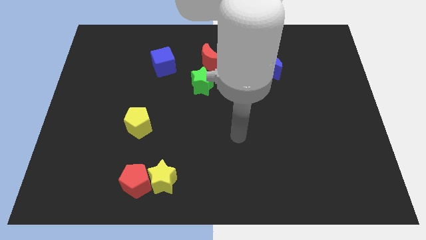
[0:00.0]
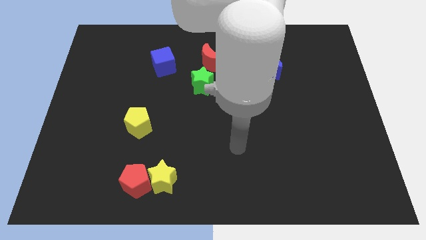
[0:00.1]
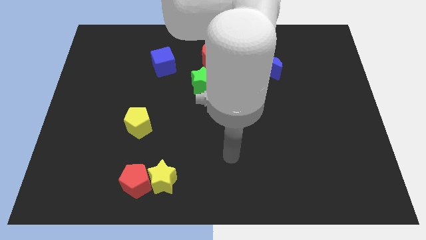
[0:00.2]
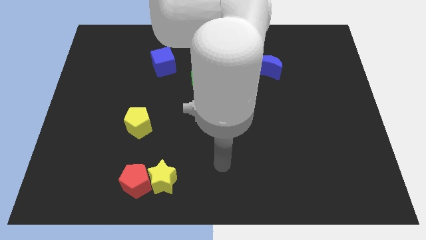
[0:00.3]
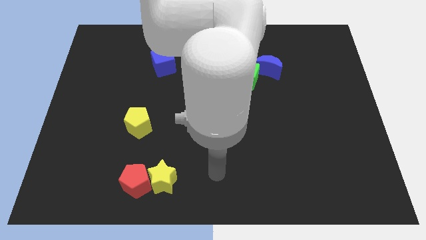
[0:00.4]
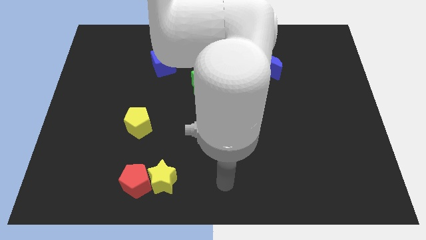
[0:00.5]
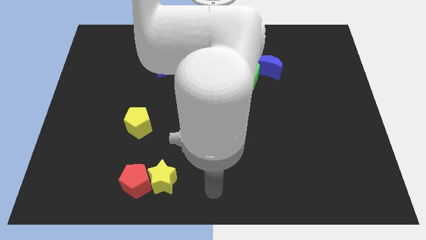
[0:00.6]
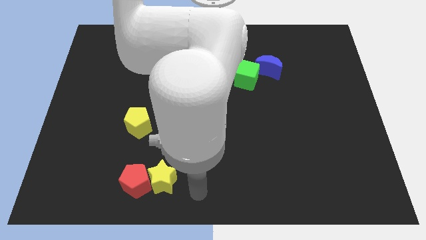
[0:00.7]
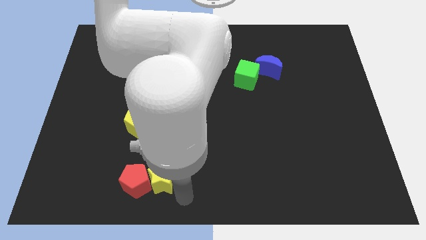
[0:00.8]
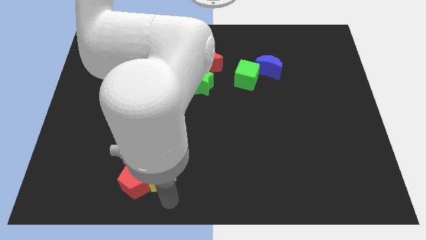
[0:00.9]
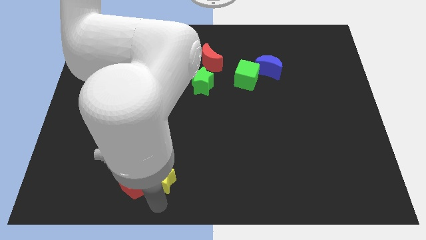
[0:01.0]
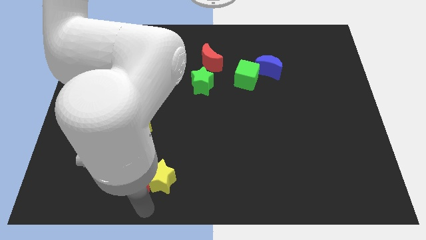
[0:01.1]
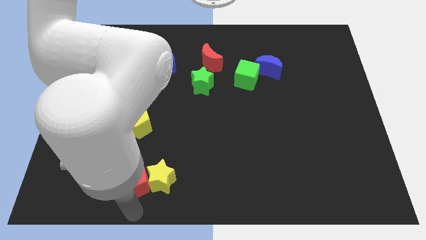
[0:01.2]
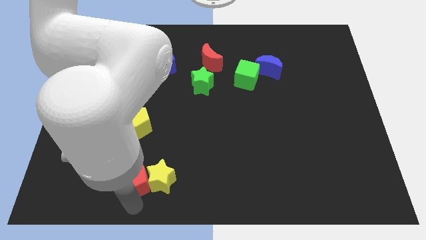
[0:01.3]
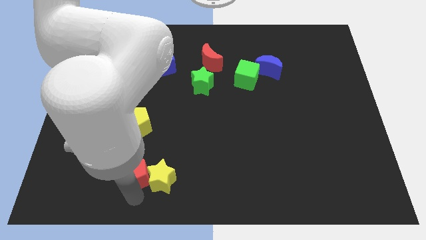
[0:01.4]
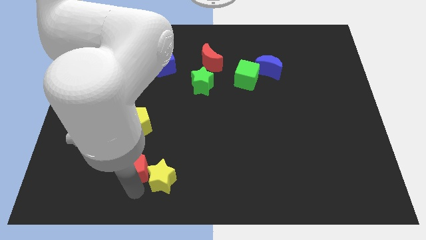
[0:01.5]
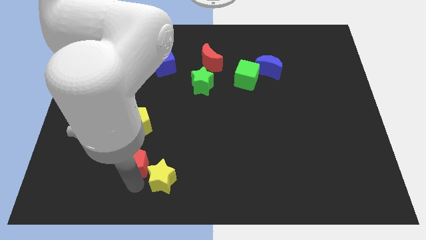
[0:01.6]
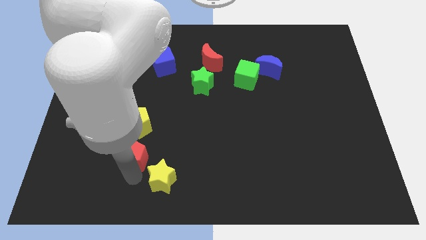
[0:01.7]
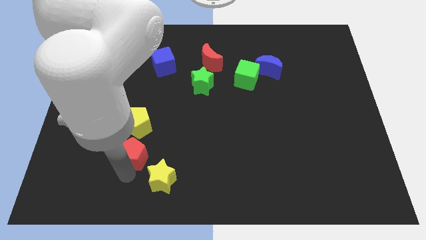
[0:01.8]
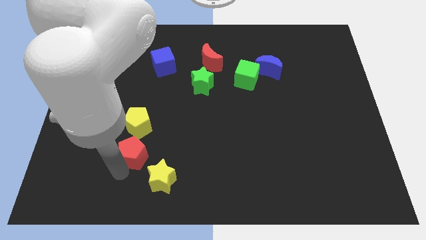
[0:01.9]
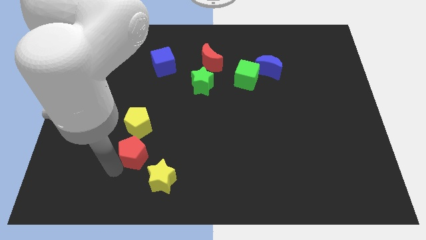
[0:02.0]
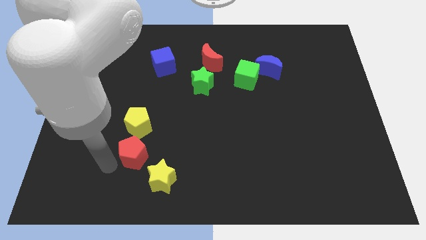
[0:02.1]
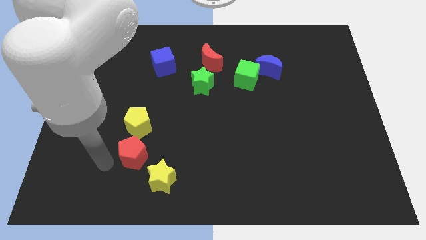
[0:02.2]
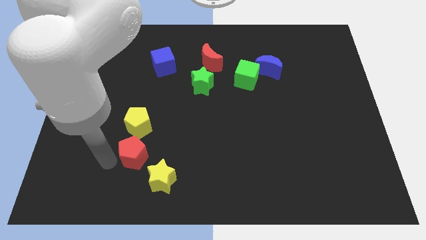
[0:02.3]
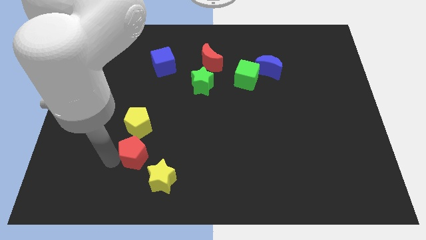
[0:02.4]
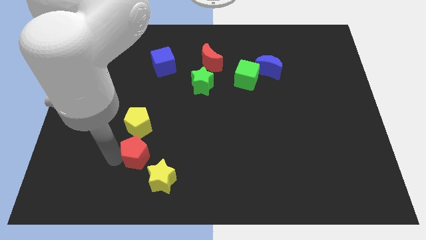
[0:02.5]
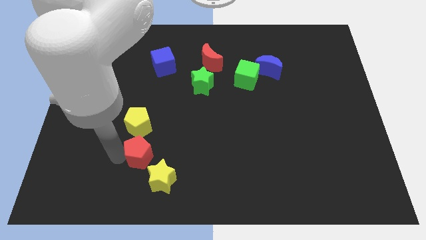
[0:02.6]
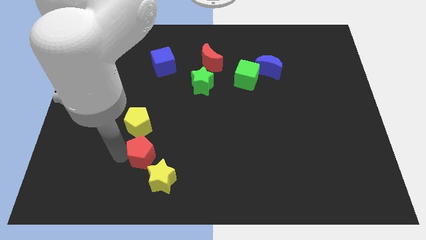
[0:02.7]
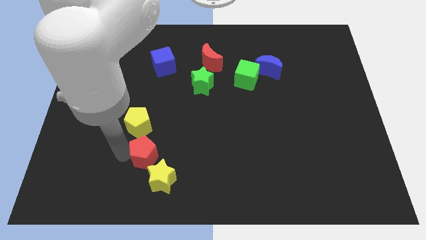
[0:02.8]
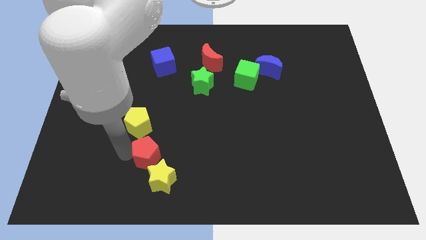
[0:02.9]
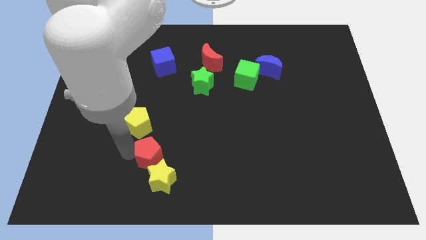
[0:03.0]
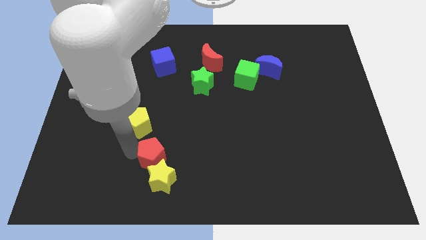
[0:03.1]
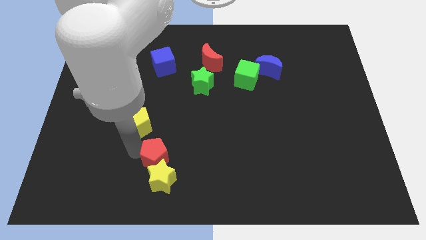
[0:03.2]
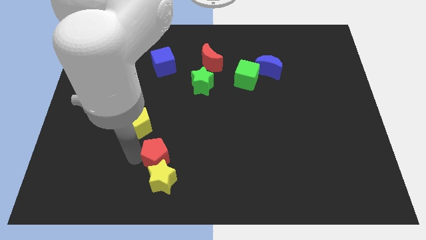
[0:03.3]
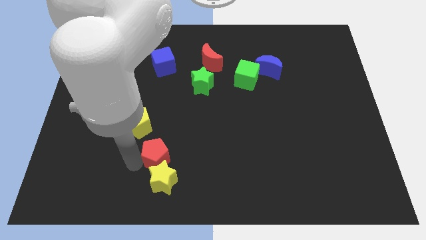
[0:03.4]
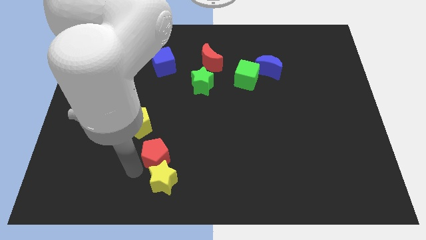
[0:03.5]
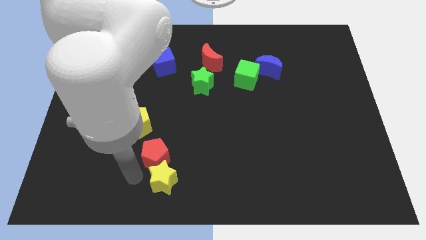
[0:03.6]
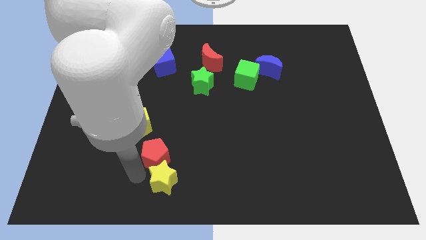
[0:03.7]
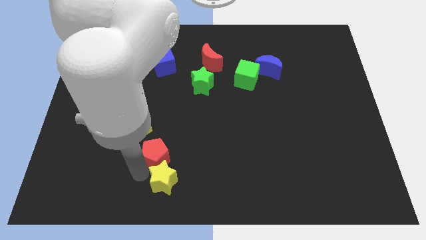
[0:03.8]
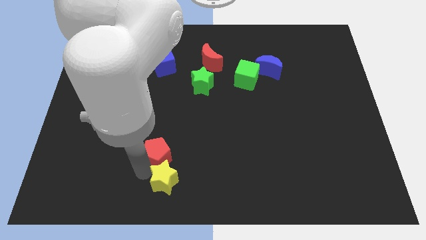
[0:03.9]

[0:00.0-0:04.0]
move the red pentagon diagonally up and right a bit

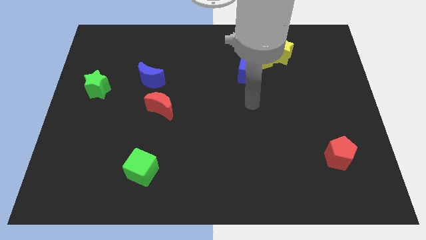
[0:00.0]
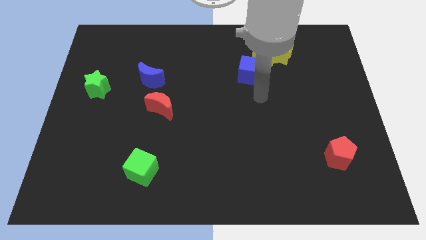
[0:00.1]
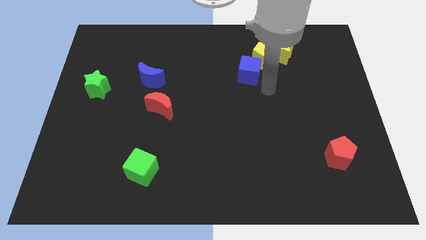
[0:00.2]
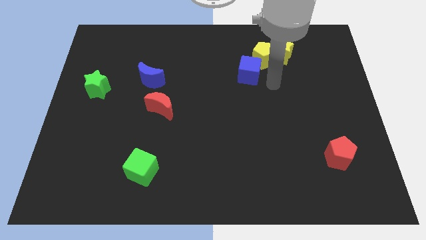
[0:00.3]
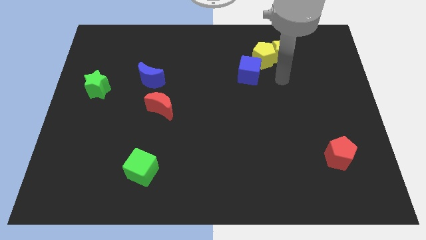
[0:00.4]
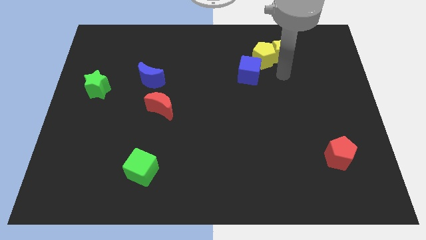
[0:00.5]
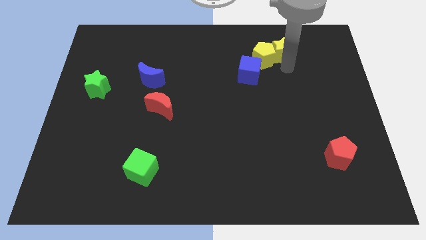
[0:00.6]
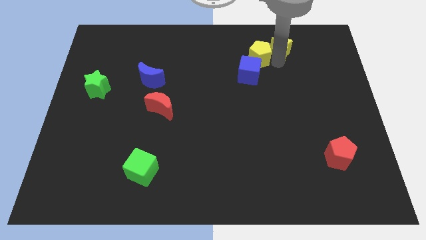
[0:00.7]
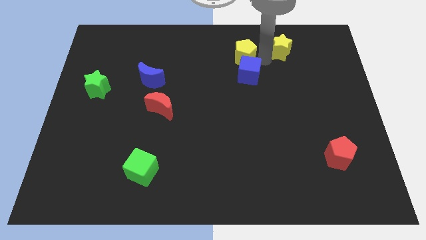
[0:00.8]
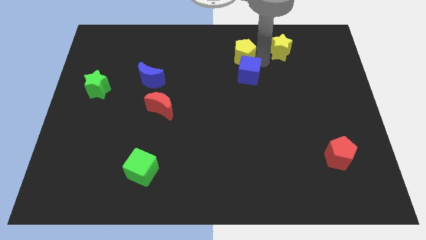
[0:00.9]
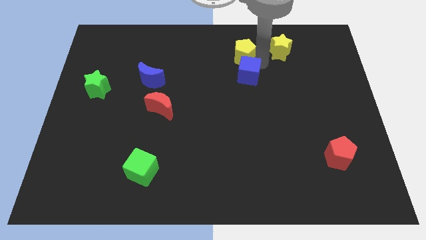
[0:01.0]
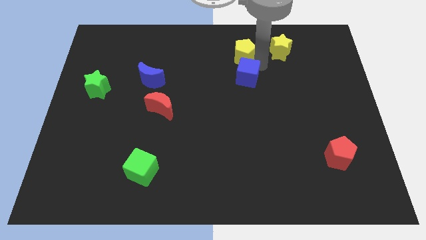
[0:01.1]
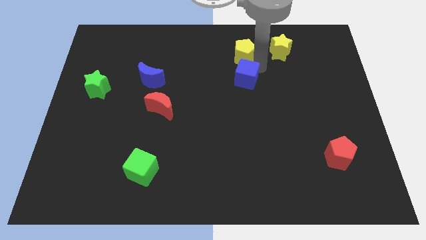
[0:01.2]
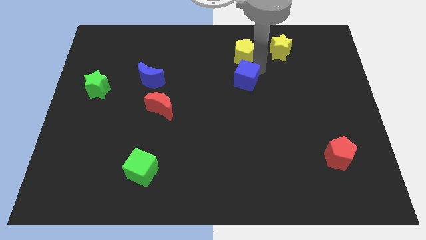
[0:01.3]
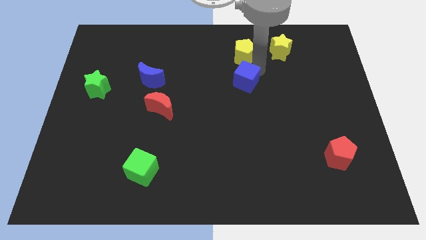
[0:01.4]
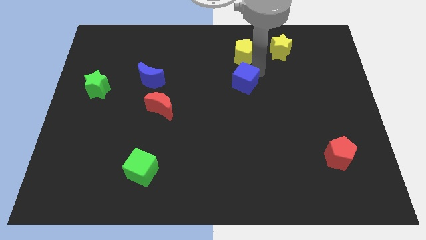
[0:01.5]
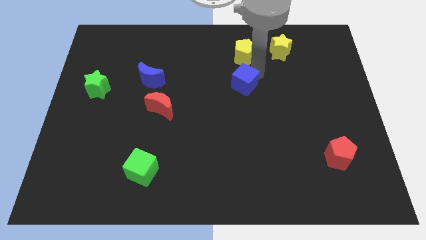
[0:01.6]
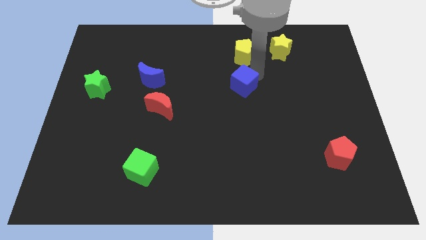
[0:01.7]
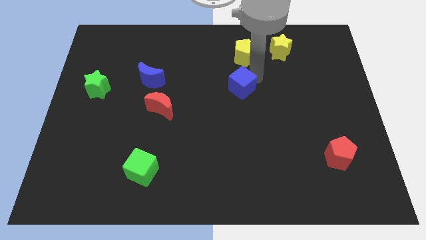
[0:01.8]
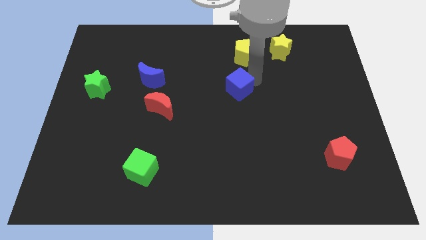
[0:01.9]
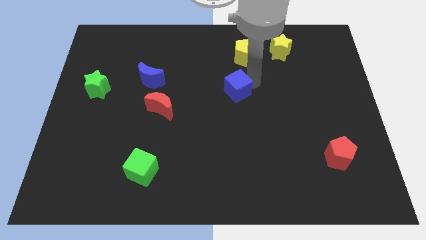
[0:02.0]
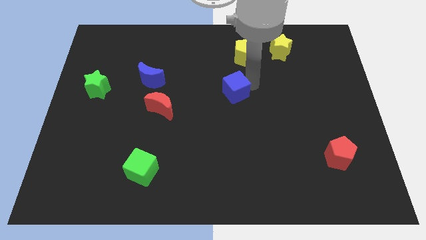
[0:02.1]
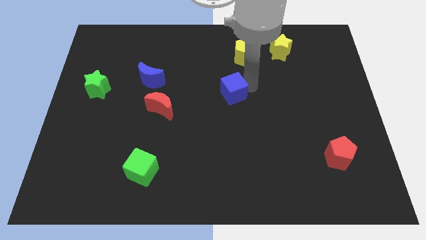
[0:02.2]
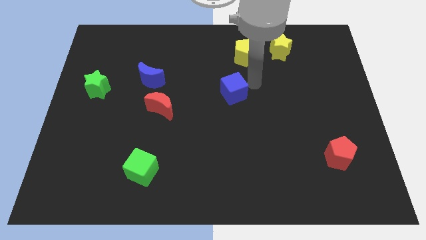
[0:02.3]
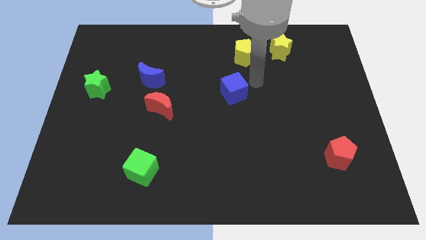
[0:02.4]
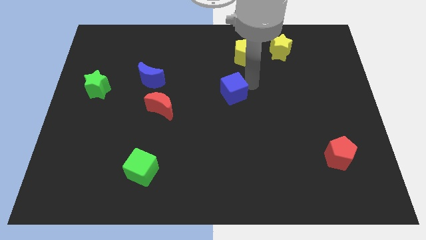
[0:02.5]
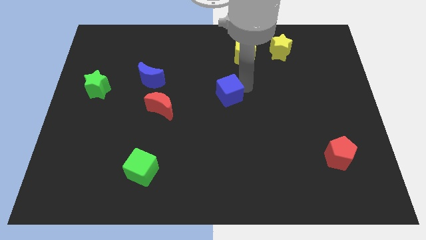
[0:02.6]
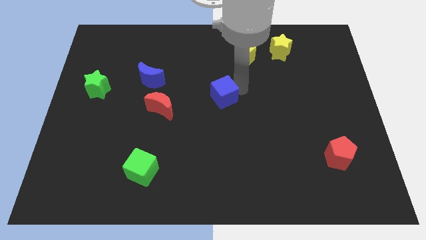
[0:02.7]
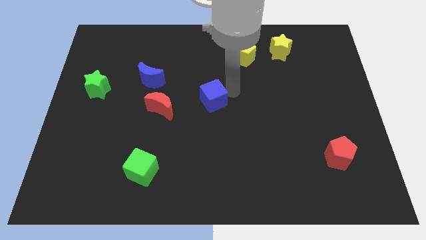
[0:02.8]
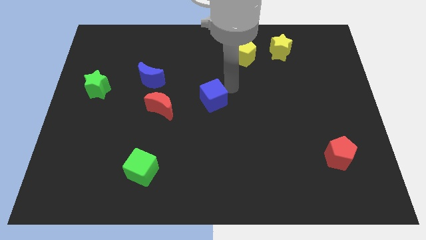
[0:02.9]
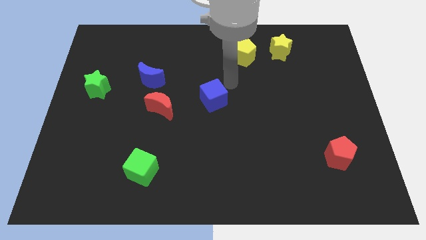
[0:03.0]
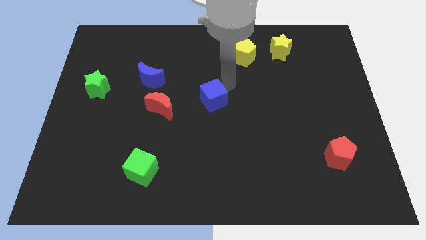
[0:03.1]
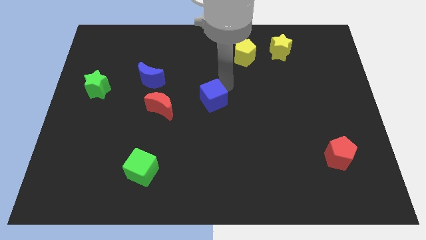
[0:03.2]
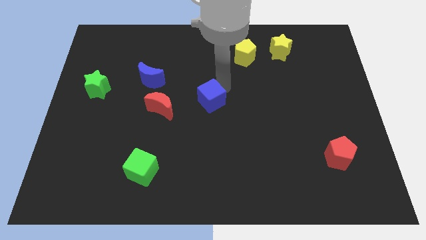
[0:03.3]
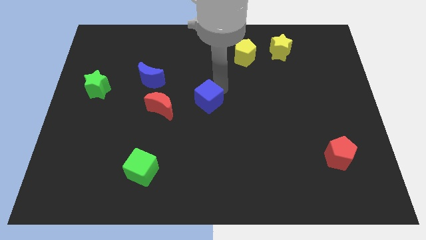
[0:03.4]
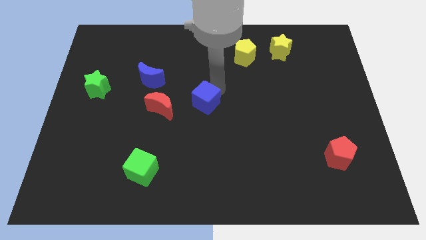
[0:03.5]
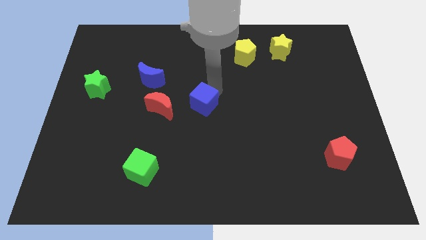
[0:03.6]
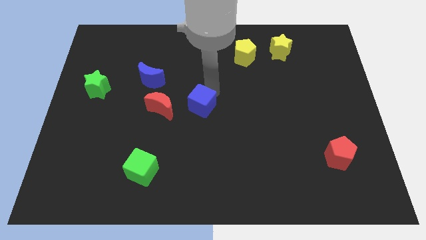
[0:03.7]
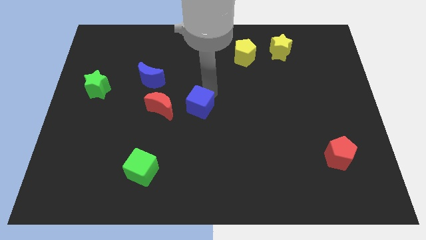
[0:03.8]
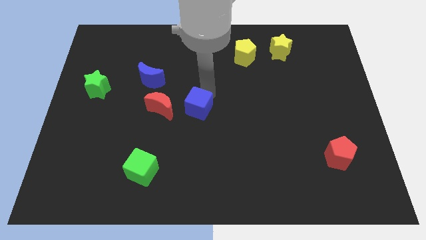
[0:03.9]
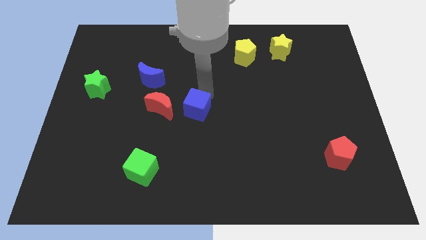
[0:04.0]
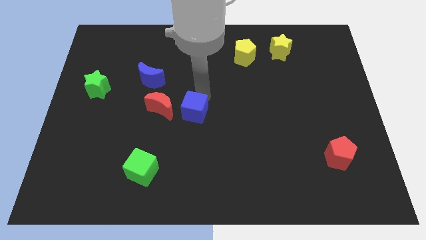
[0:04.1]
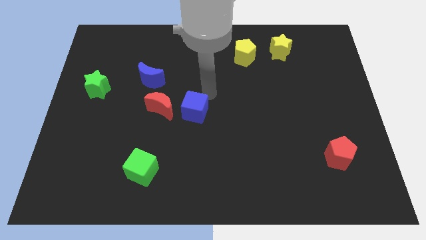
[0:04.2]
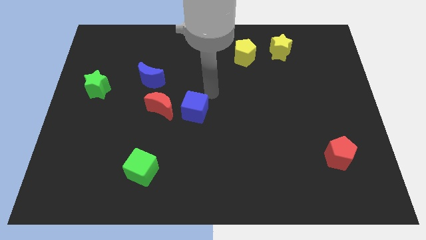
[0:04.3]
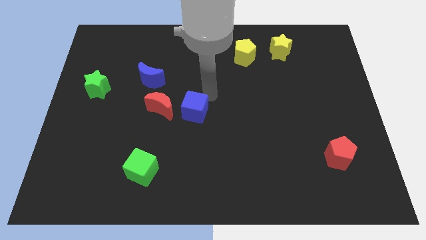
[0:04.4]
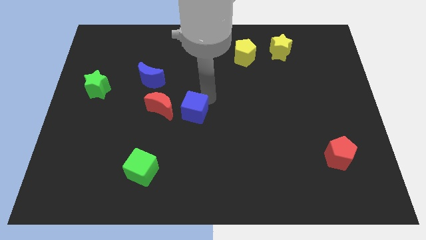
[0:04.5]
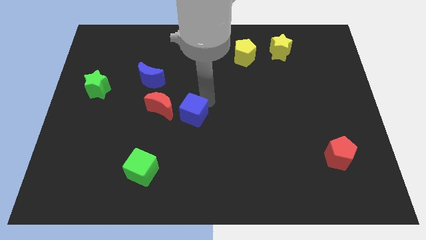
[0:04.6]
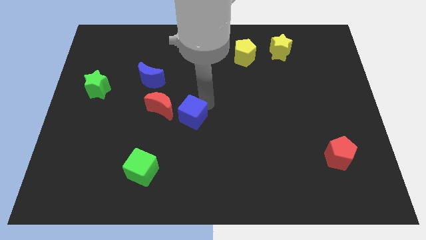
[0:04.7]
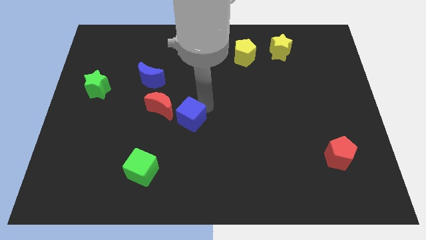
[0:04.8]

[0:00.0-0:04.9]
push the blue cube downwards and then left
